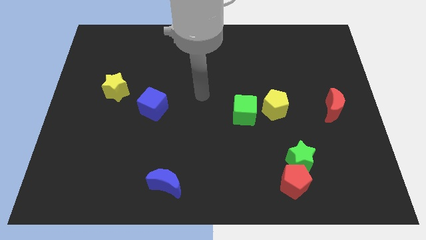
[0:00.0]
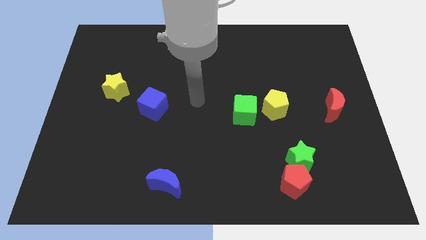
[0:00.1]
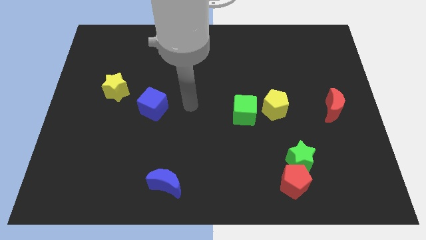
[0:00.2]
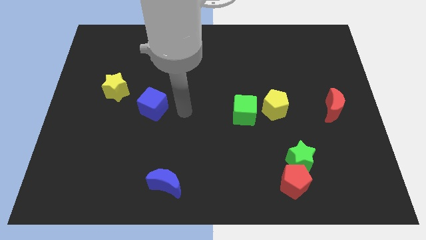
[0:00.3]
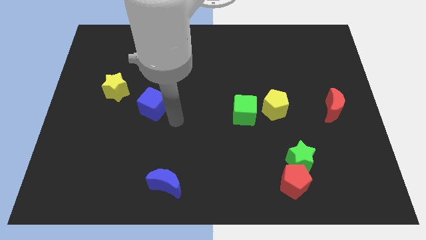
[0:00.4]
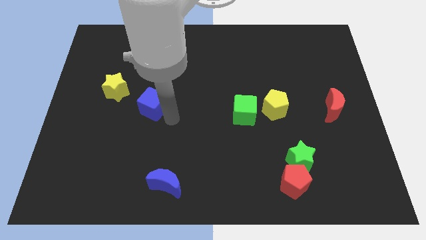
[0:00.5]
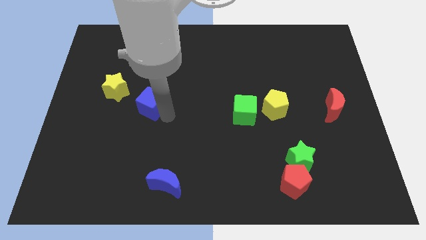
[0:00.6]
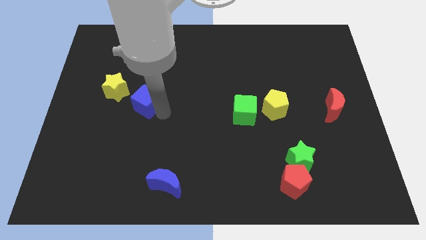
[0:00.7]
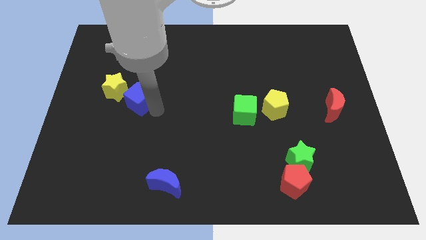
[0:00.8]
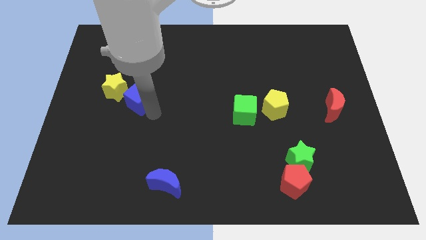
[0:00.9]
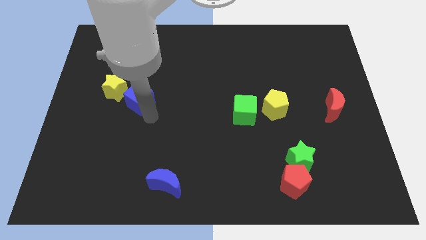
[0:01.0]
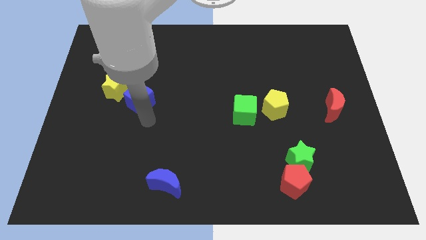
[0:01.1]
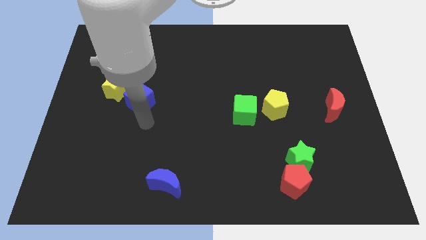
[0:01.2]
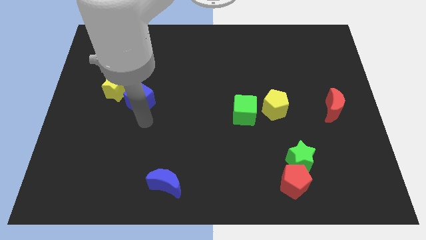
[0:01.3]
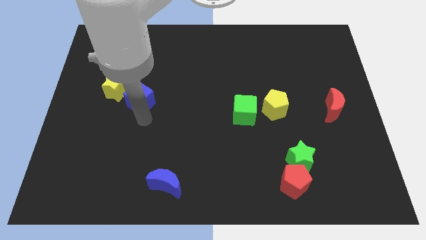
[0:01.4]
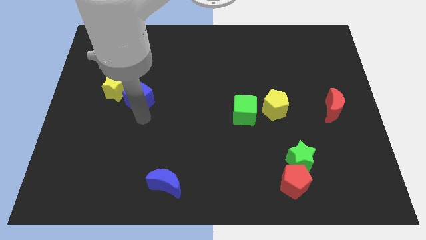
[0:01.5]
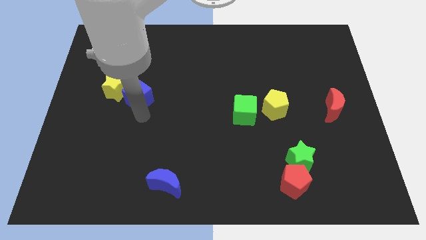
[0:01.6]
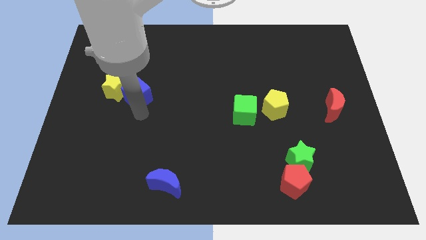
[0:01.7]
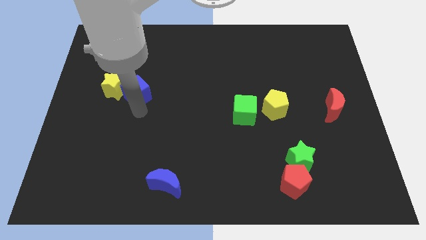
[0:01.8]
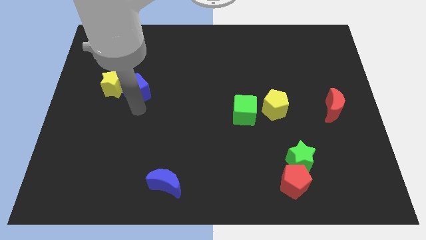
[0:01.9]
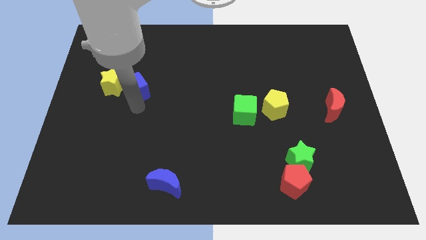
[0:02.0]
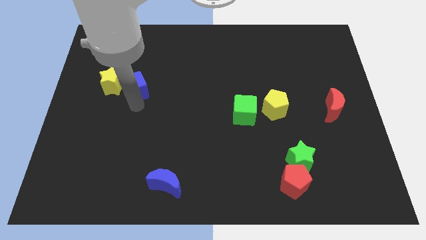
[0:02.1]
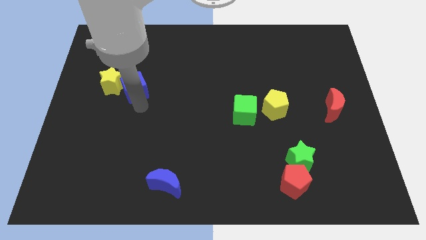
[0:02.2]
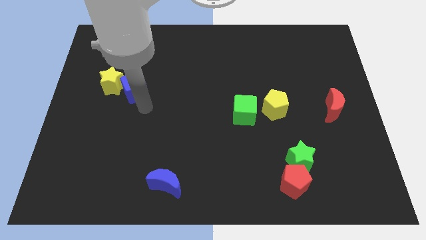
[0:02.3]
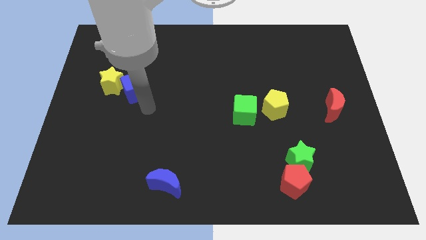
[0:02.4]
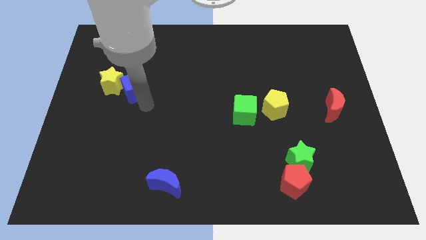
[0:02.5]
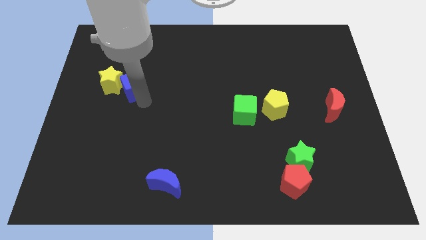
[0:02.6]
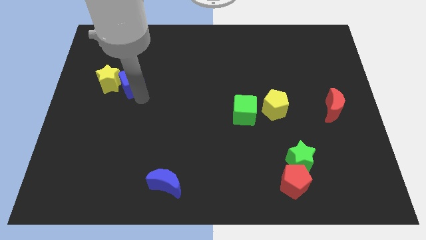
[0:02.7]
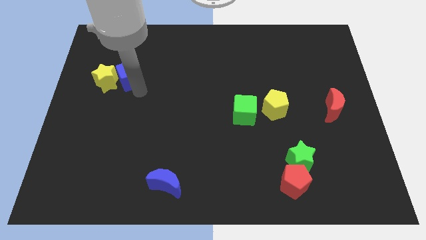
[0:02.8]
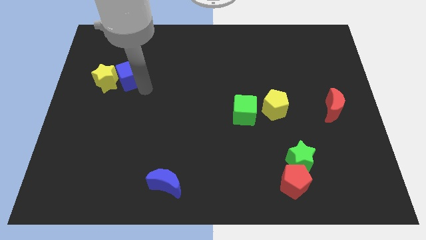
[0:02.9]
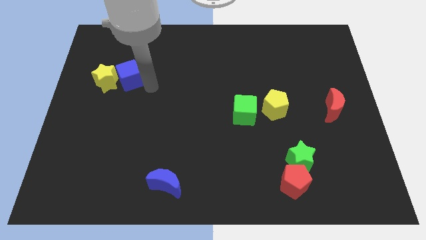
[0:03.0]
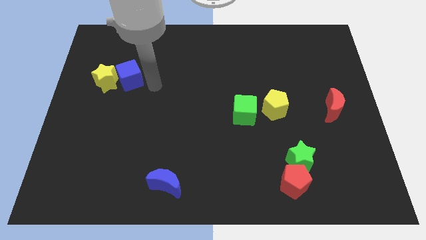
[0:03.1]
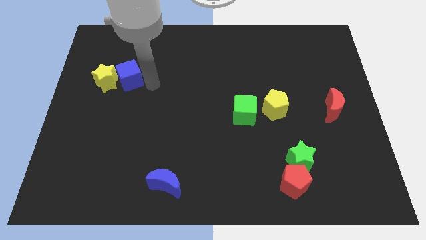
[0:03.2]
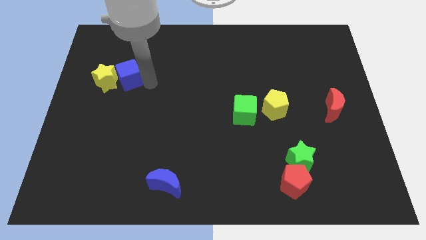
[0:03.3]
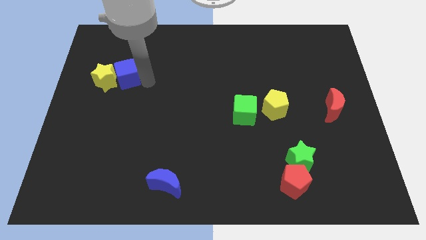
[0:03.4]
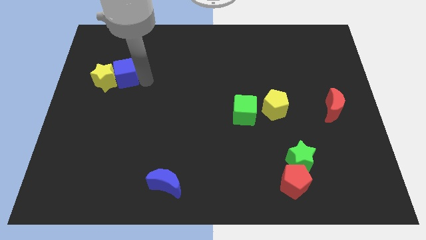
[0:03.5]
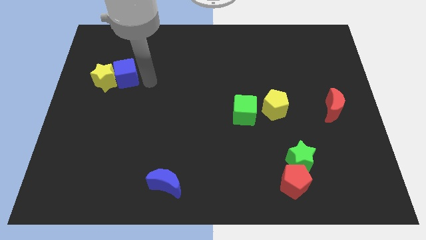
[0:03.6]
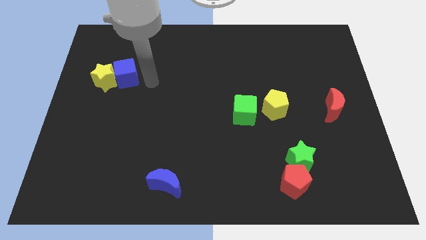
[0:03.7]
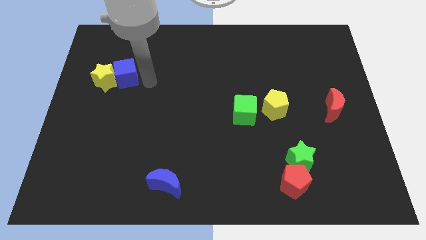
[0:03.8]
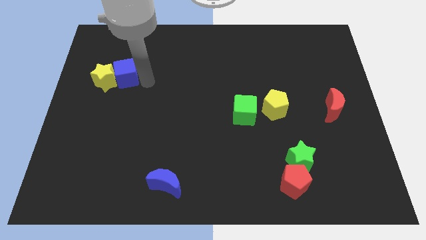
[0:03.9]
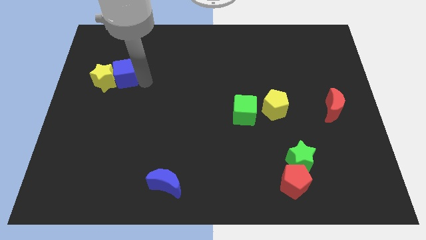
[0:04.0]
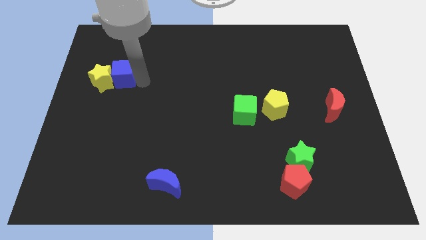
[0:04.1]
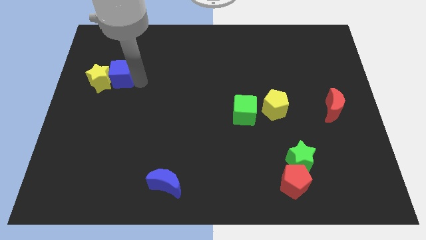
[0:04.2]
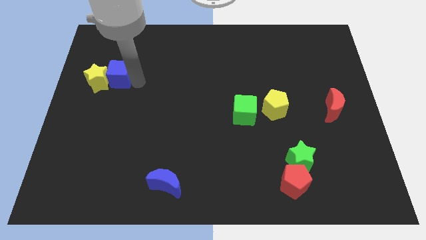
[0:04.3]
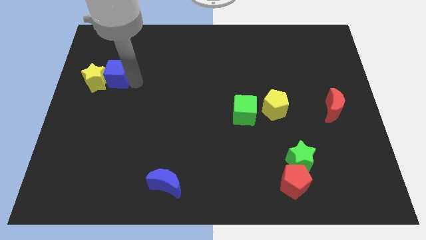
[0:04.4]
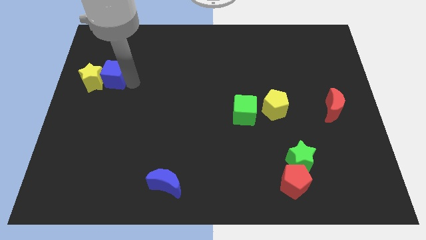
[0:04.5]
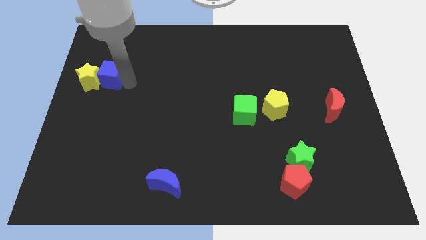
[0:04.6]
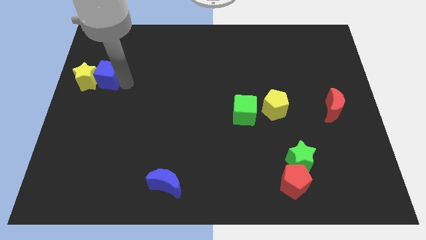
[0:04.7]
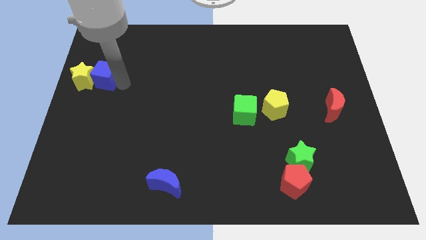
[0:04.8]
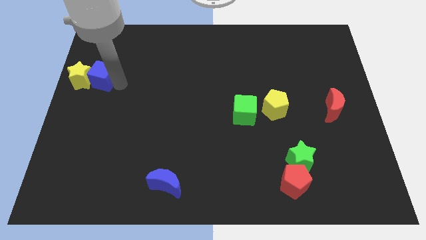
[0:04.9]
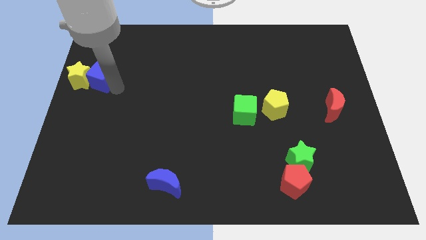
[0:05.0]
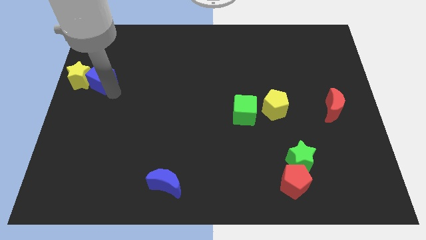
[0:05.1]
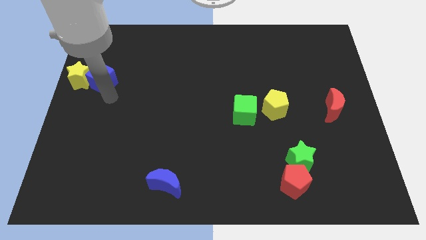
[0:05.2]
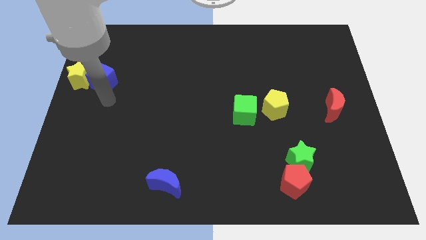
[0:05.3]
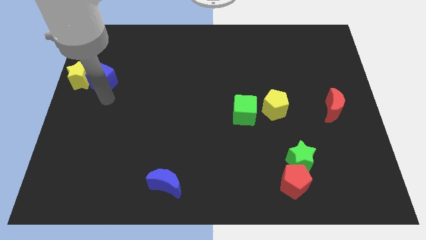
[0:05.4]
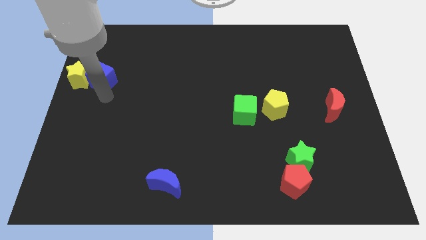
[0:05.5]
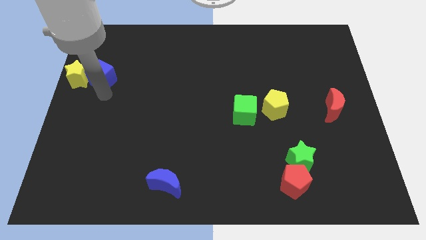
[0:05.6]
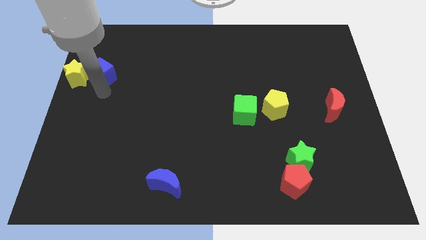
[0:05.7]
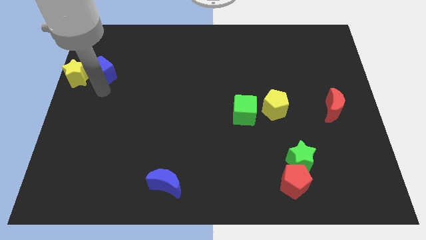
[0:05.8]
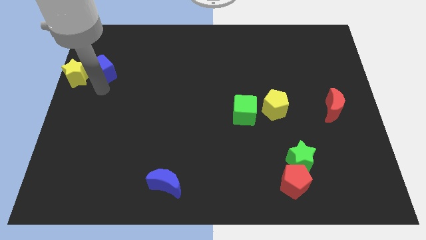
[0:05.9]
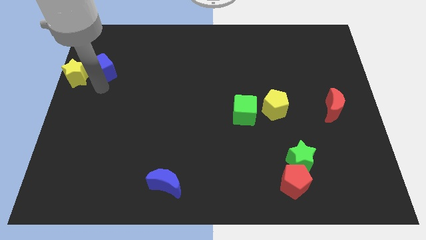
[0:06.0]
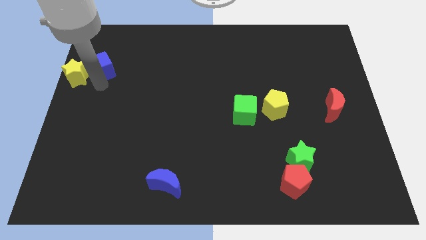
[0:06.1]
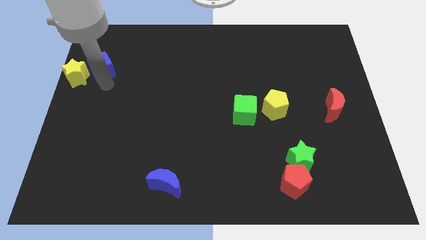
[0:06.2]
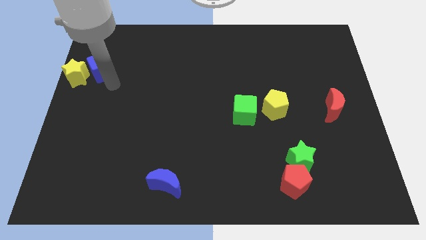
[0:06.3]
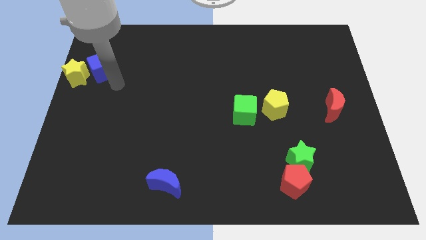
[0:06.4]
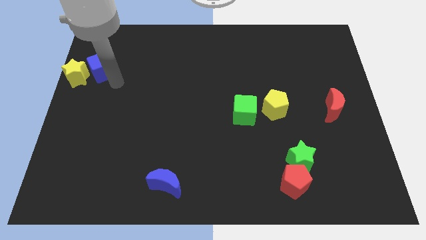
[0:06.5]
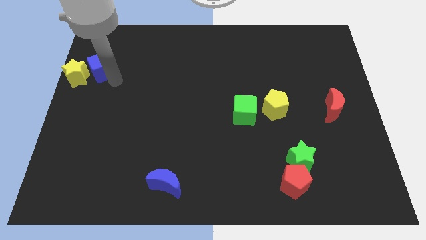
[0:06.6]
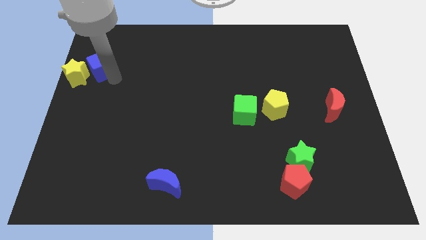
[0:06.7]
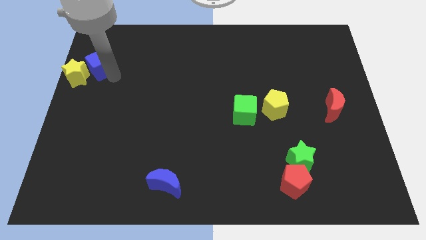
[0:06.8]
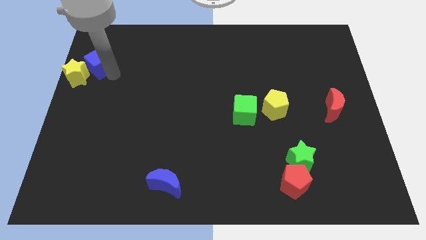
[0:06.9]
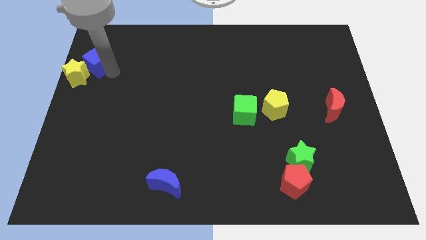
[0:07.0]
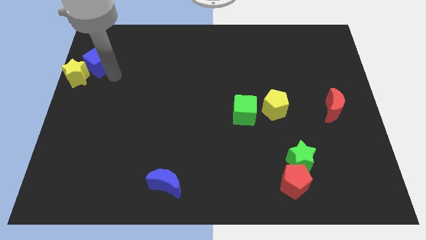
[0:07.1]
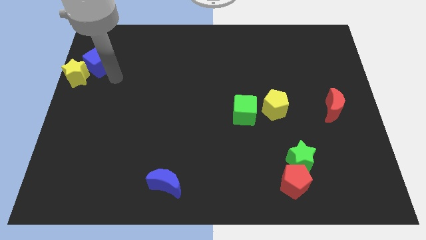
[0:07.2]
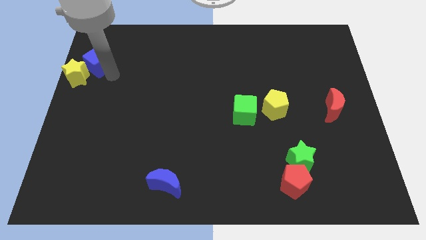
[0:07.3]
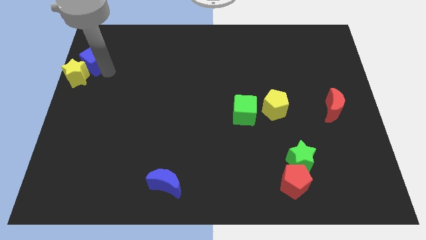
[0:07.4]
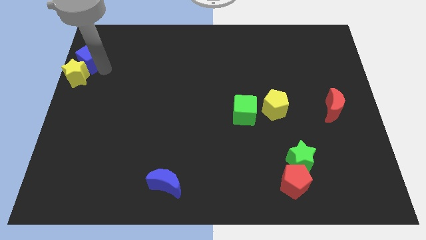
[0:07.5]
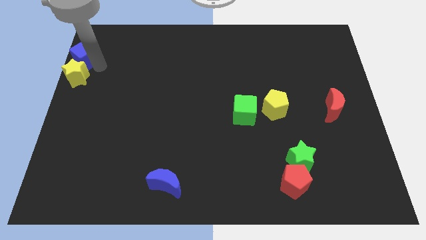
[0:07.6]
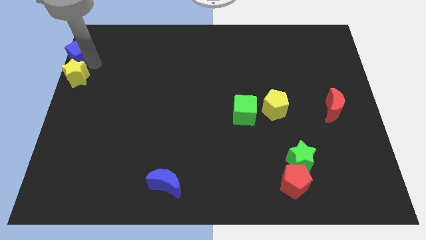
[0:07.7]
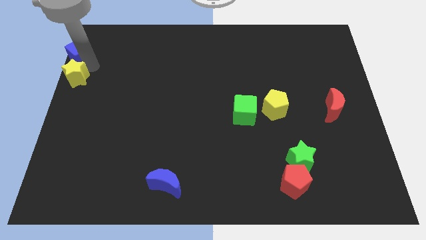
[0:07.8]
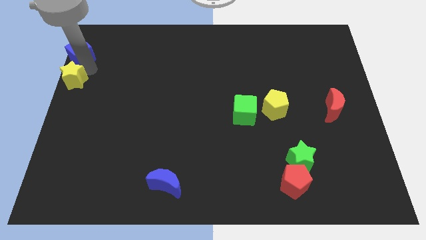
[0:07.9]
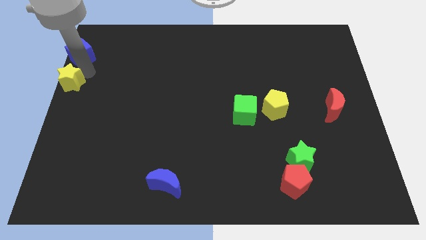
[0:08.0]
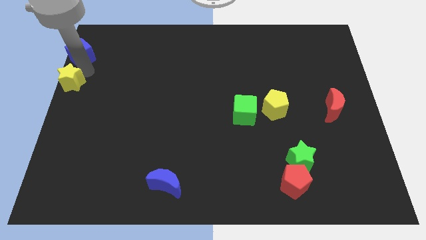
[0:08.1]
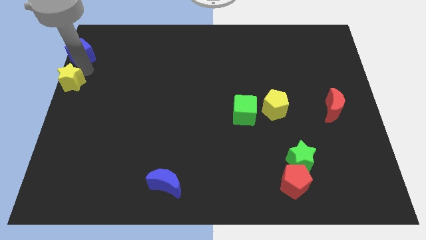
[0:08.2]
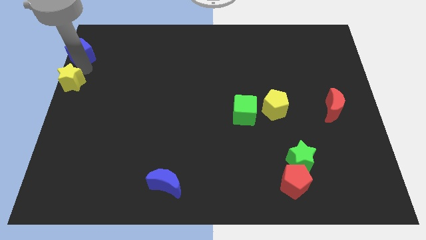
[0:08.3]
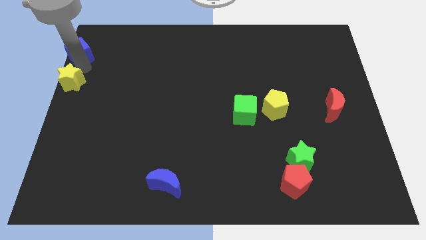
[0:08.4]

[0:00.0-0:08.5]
push the blue cube to the upper left corner
